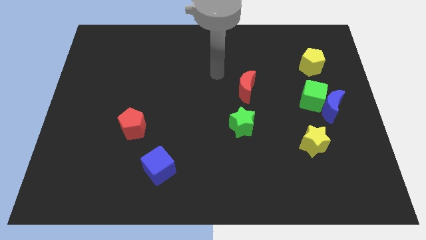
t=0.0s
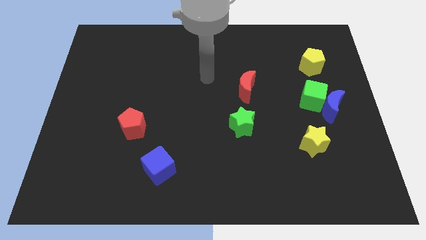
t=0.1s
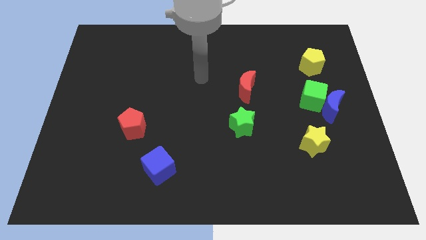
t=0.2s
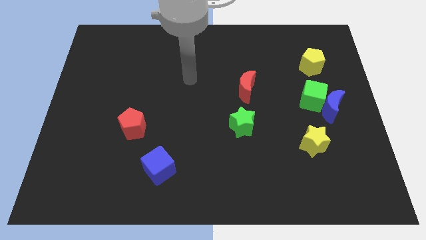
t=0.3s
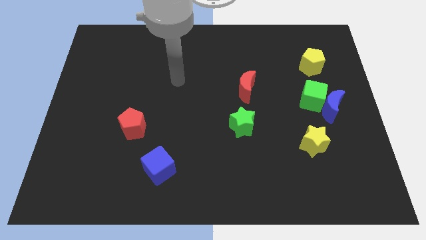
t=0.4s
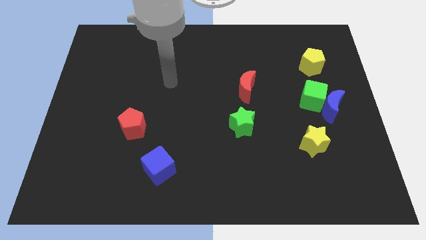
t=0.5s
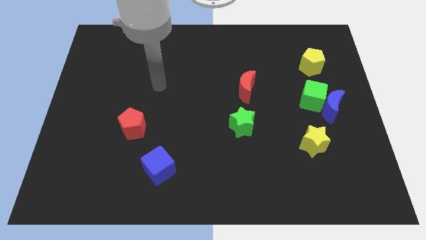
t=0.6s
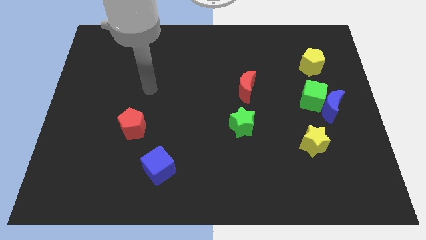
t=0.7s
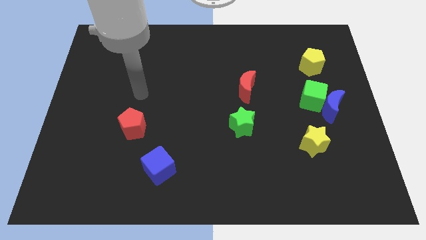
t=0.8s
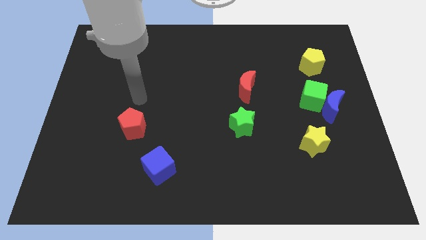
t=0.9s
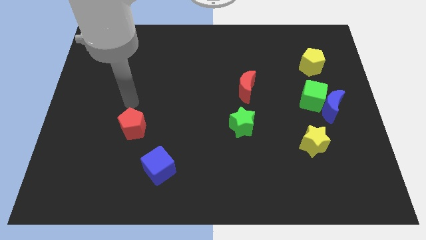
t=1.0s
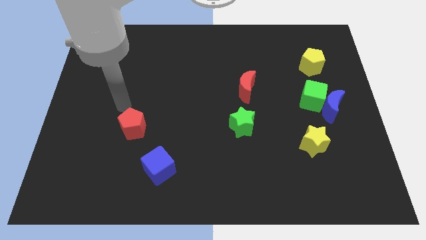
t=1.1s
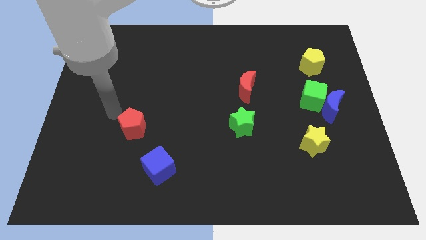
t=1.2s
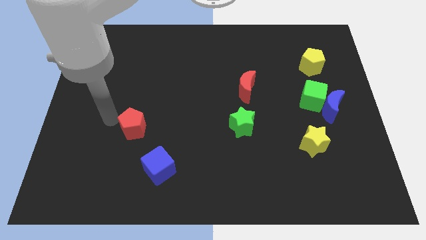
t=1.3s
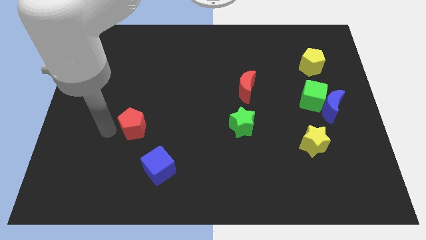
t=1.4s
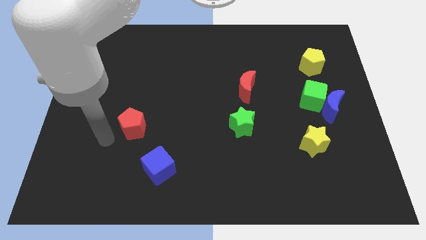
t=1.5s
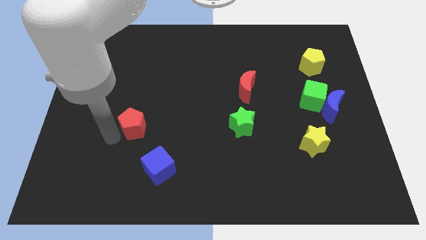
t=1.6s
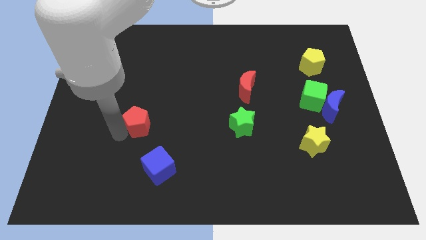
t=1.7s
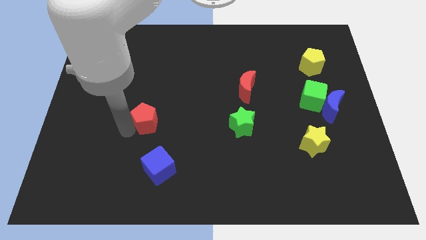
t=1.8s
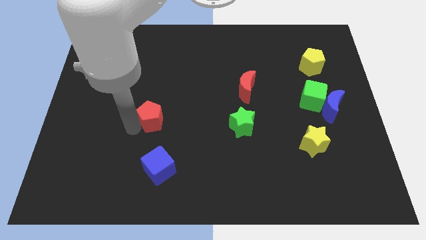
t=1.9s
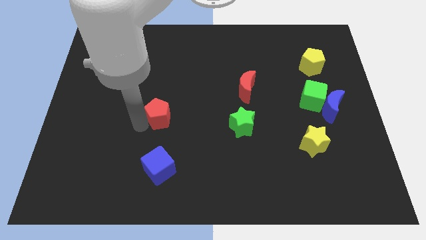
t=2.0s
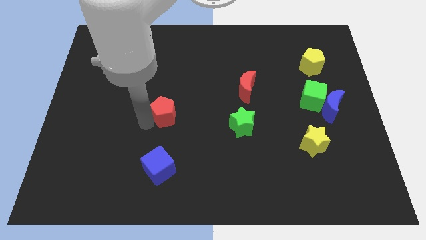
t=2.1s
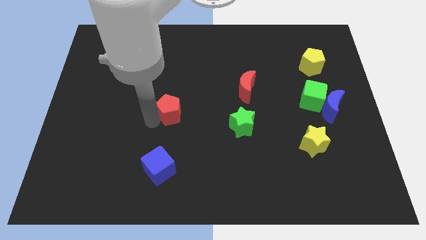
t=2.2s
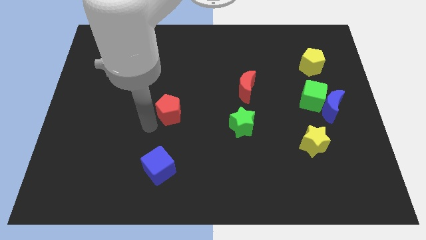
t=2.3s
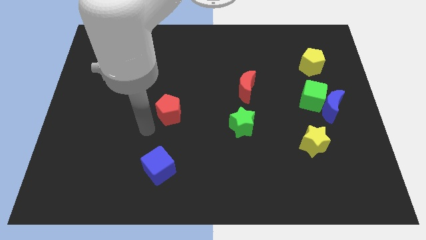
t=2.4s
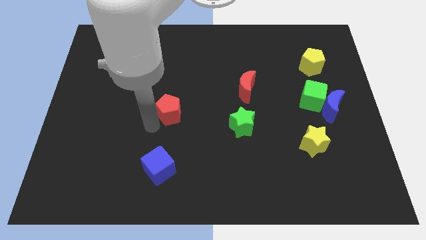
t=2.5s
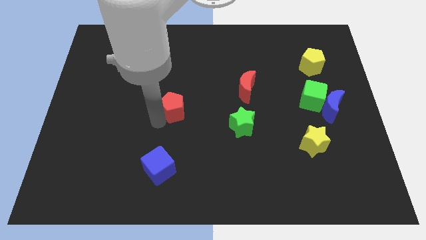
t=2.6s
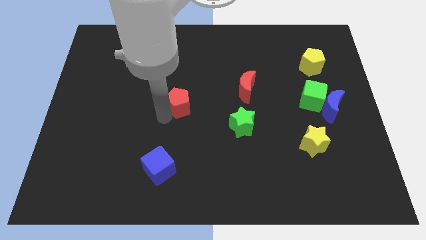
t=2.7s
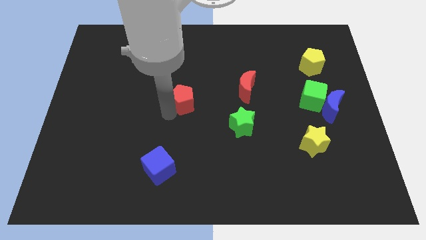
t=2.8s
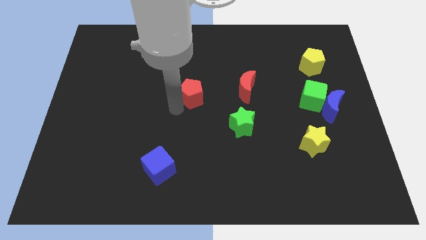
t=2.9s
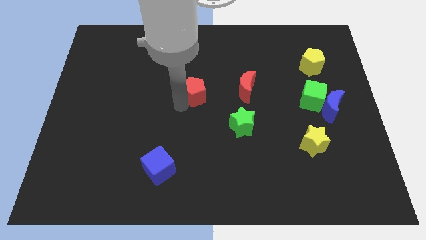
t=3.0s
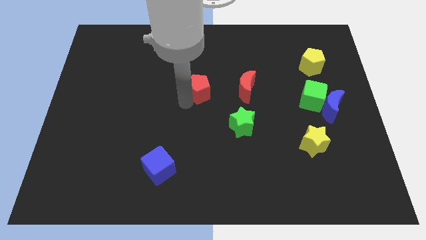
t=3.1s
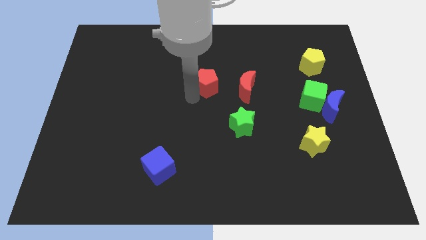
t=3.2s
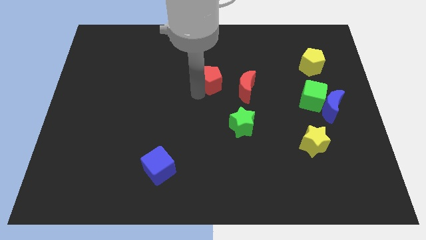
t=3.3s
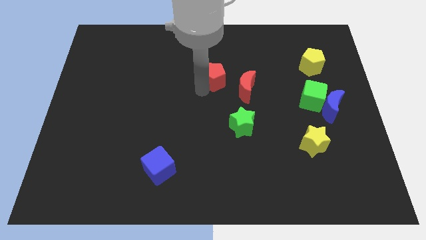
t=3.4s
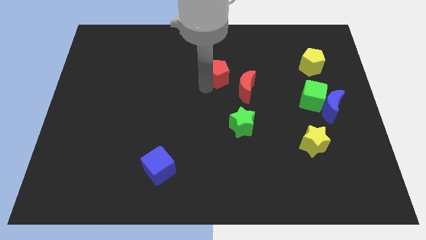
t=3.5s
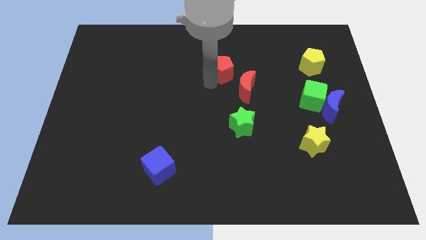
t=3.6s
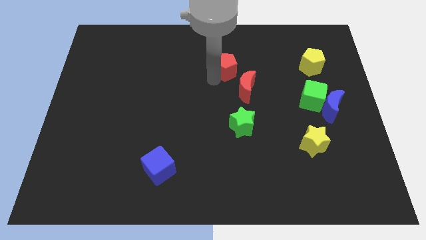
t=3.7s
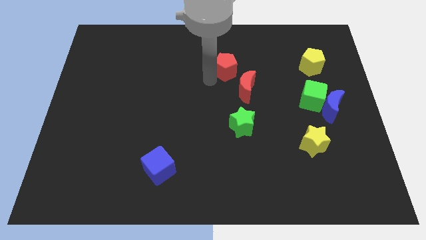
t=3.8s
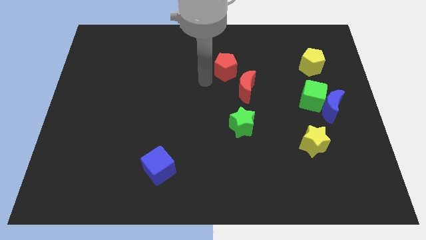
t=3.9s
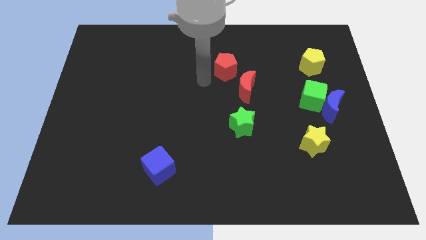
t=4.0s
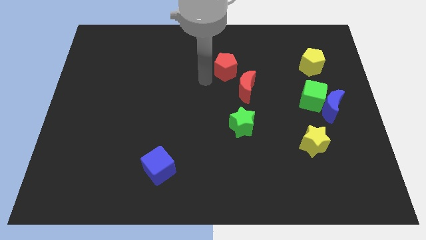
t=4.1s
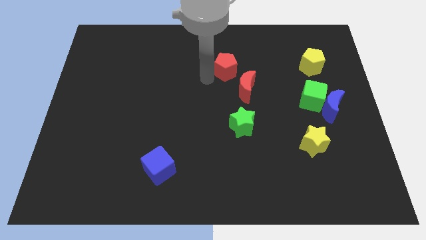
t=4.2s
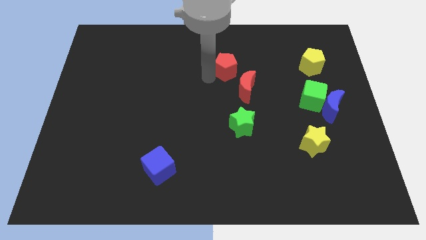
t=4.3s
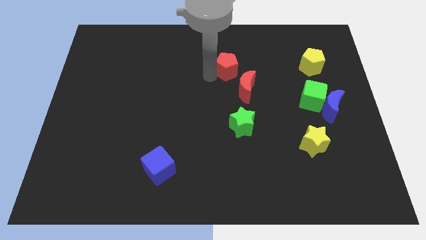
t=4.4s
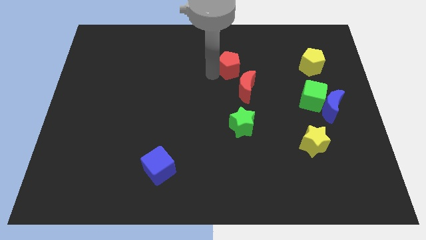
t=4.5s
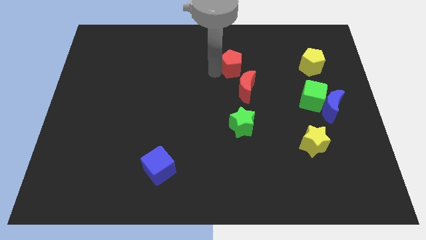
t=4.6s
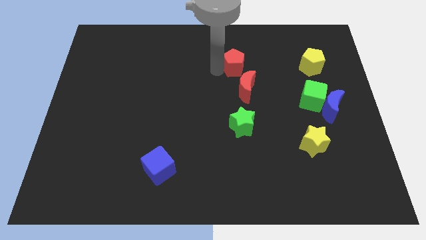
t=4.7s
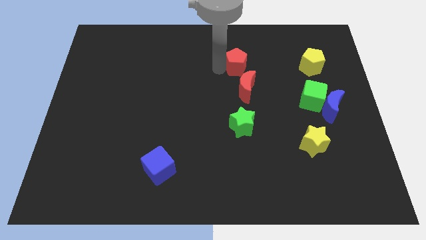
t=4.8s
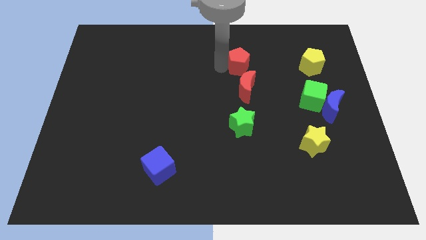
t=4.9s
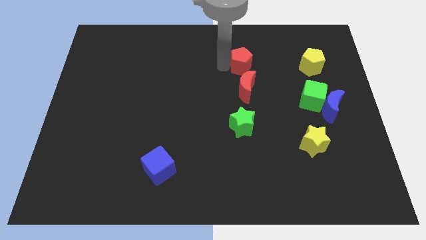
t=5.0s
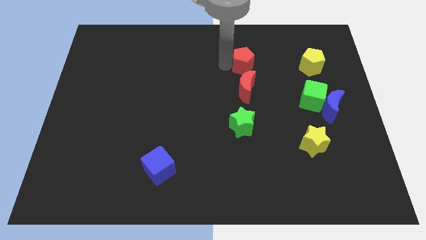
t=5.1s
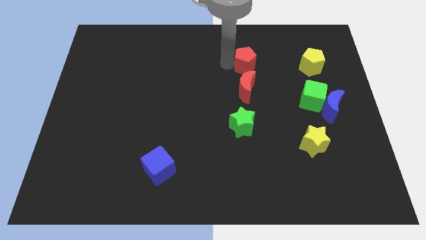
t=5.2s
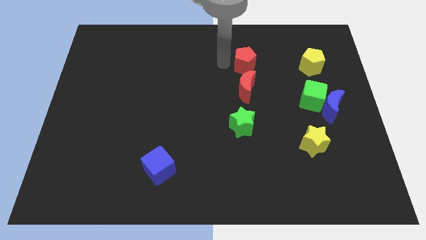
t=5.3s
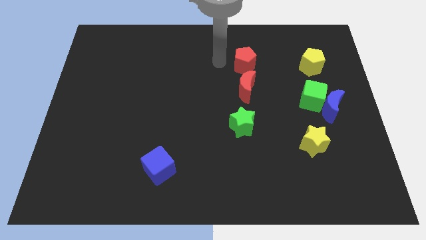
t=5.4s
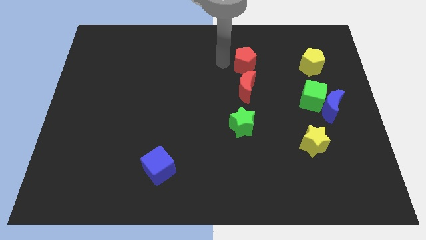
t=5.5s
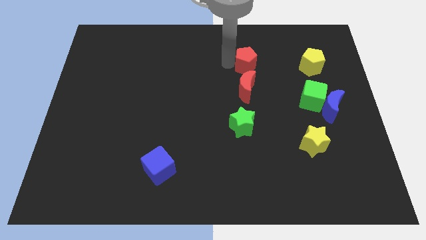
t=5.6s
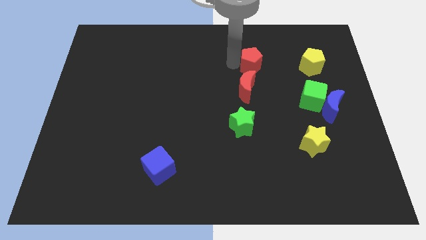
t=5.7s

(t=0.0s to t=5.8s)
put the red pentagon to the left of the yellow pentagon

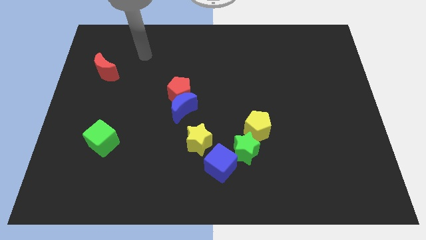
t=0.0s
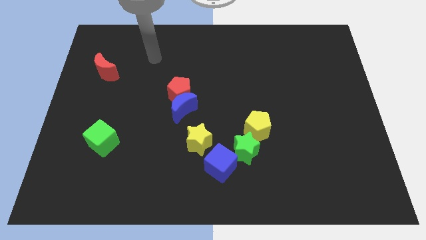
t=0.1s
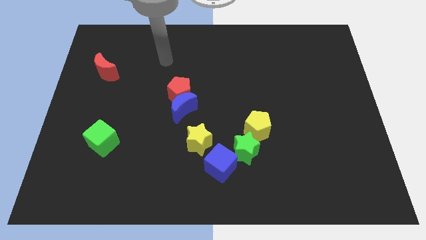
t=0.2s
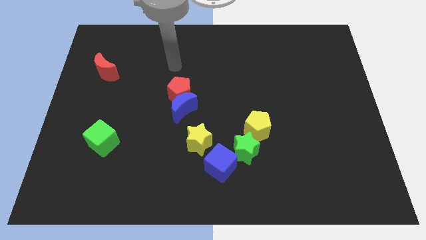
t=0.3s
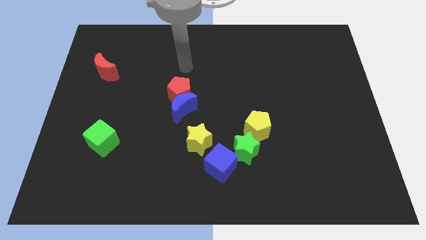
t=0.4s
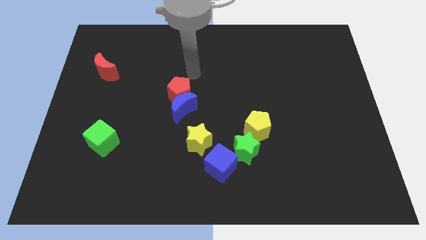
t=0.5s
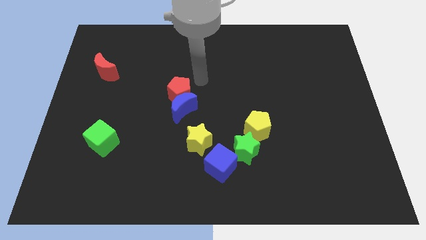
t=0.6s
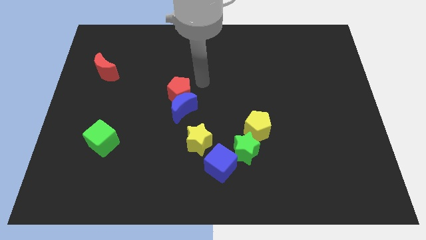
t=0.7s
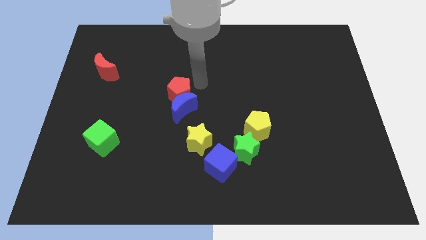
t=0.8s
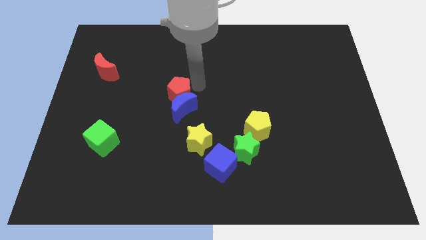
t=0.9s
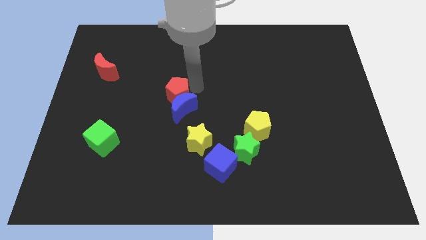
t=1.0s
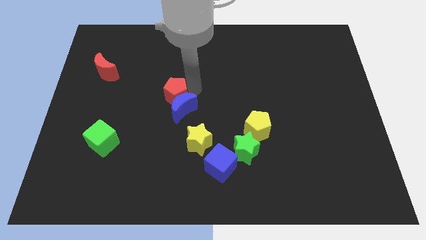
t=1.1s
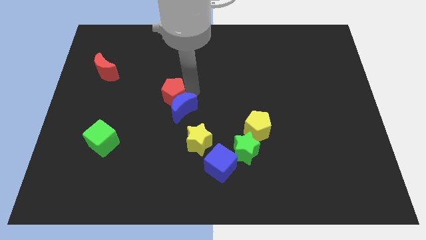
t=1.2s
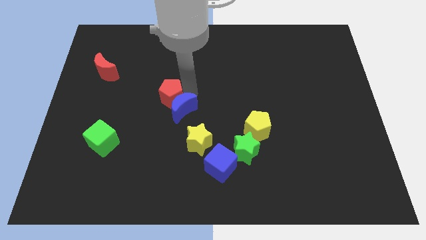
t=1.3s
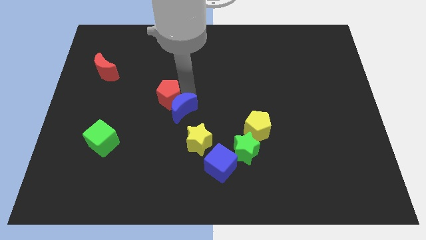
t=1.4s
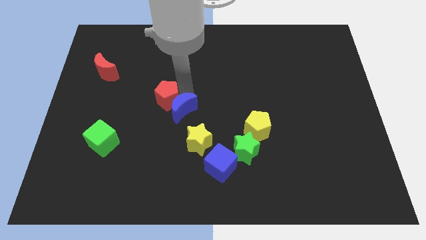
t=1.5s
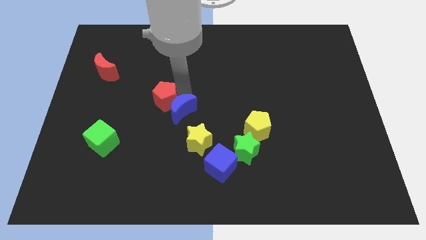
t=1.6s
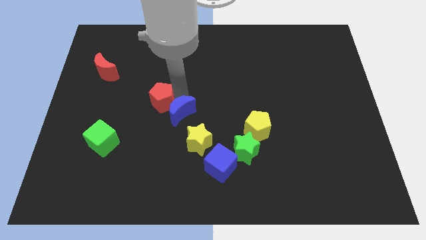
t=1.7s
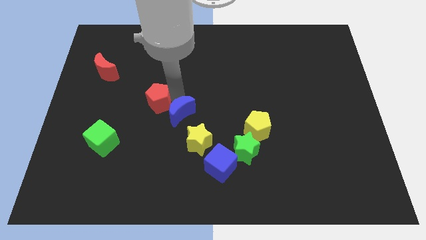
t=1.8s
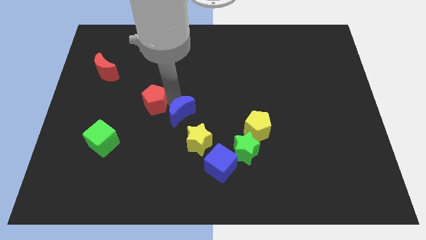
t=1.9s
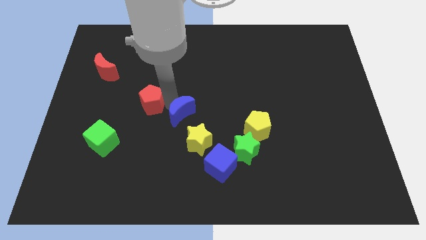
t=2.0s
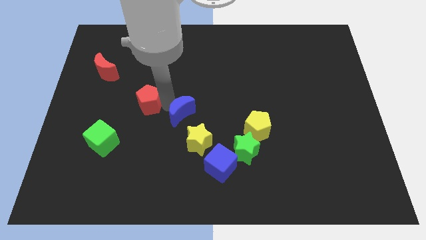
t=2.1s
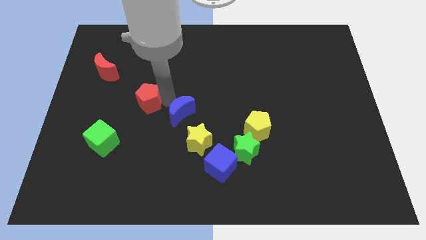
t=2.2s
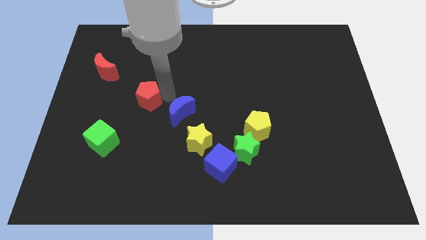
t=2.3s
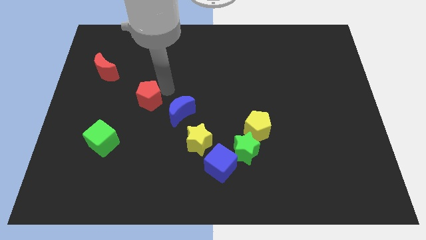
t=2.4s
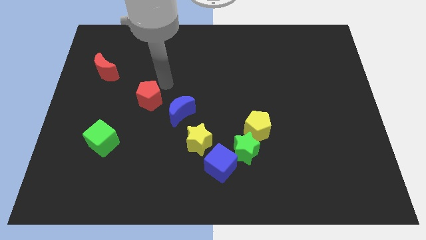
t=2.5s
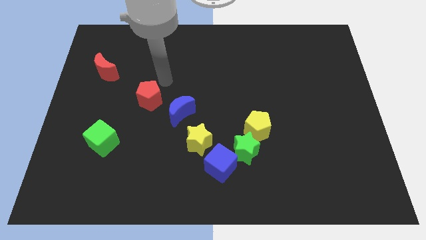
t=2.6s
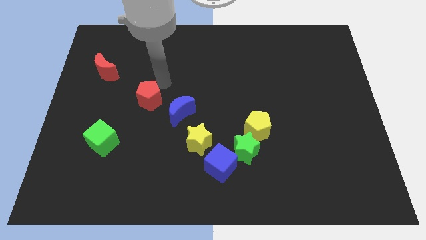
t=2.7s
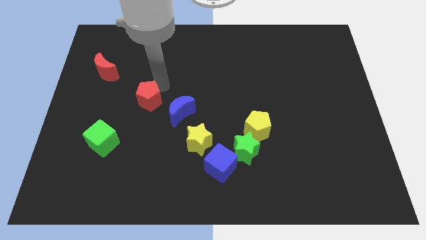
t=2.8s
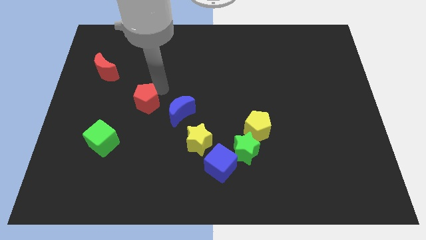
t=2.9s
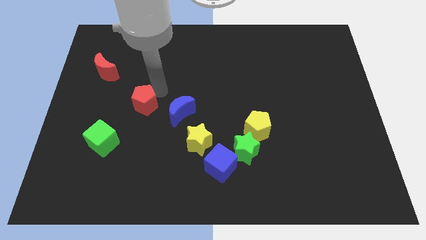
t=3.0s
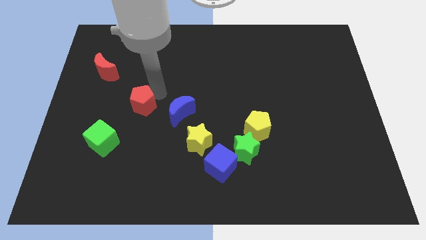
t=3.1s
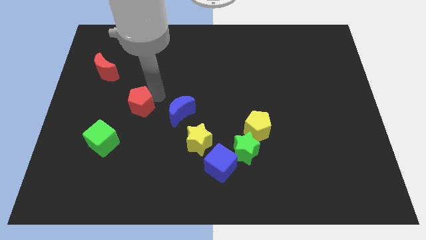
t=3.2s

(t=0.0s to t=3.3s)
move the red pentagon diagonally up and to the right of the green cube
